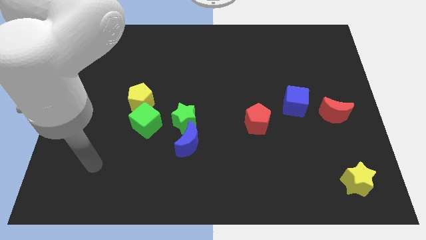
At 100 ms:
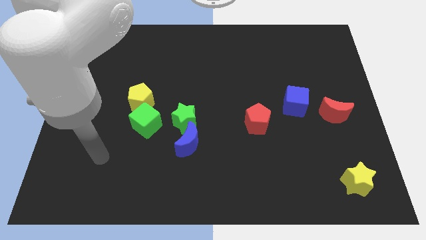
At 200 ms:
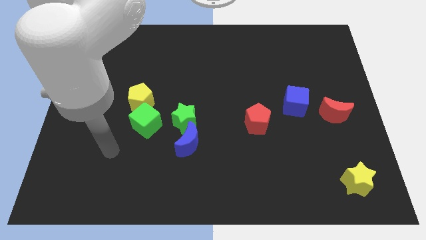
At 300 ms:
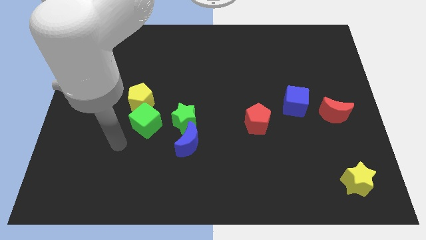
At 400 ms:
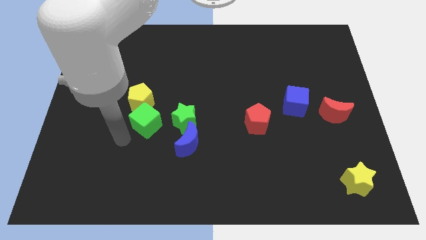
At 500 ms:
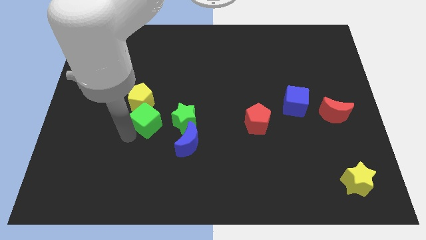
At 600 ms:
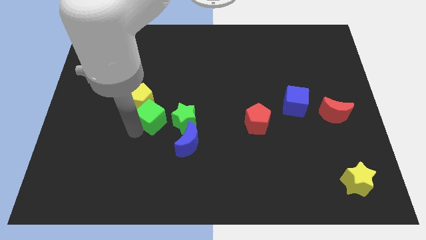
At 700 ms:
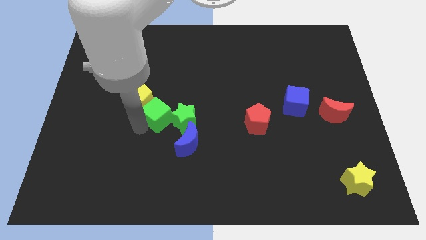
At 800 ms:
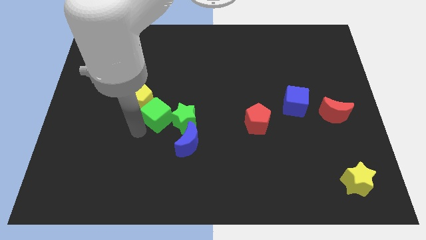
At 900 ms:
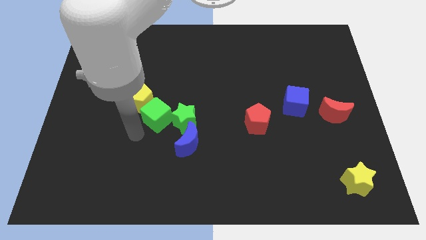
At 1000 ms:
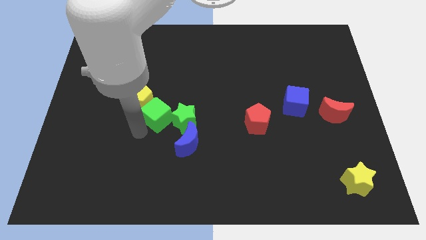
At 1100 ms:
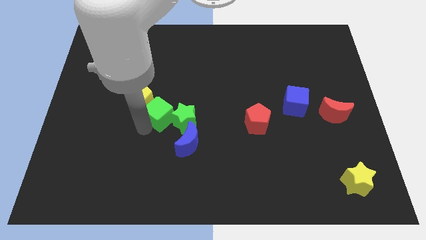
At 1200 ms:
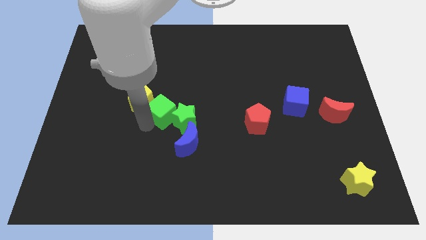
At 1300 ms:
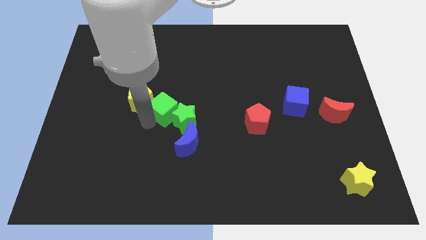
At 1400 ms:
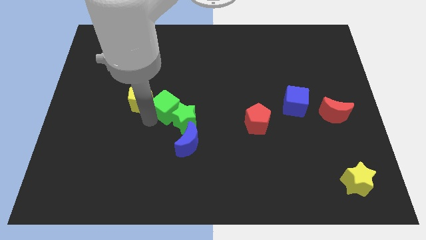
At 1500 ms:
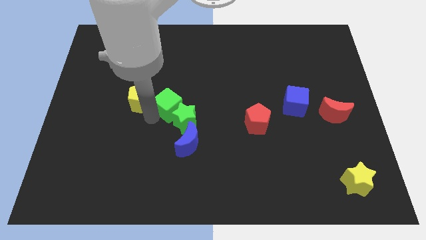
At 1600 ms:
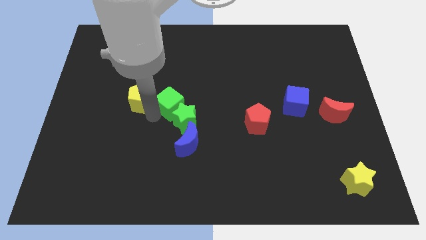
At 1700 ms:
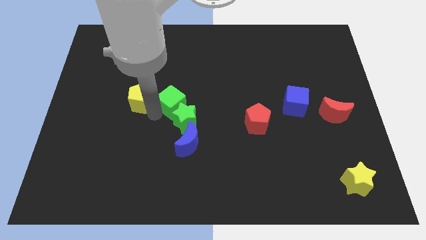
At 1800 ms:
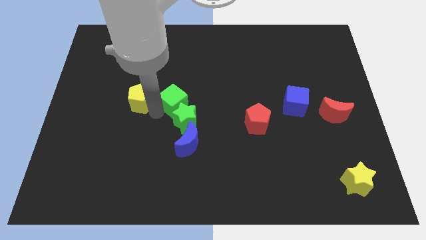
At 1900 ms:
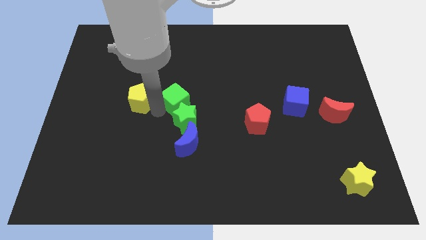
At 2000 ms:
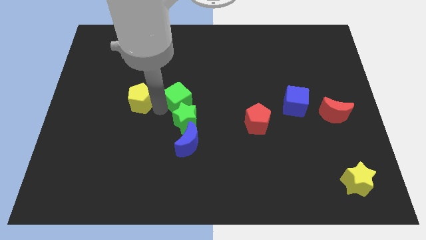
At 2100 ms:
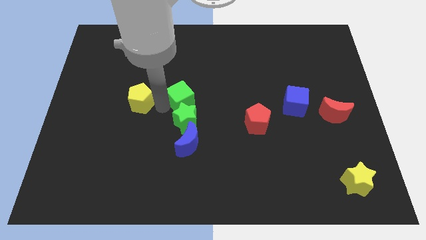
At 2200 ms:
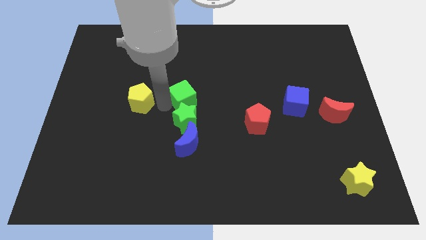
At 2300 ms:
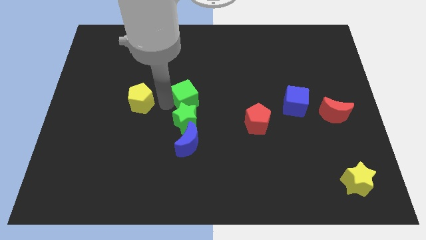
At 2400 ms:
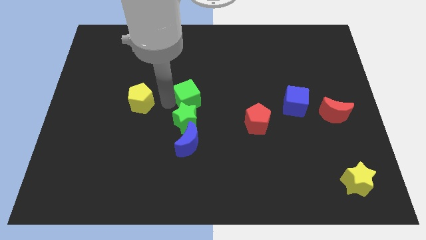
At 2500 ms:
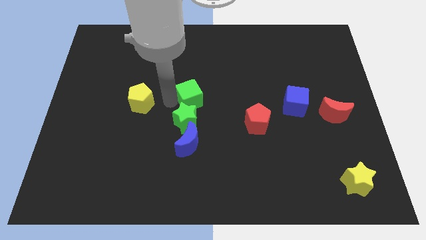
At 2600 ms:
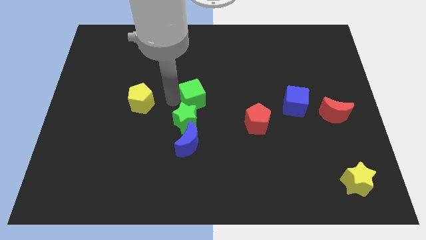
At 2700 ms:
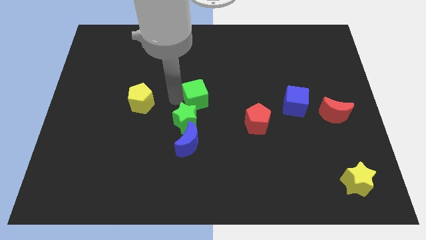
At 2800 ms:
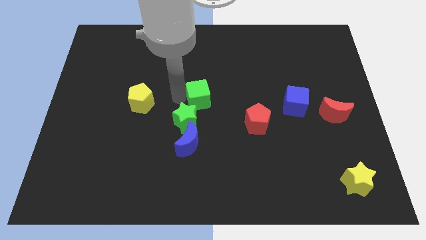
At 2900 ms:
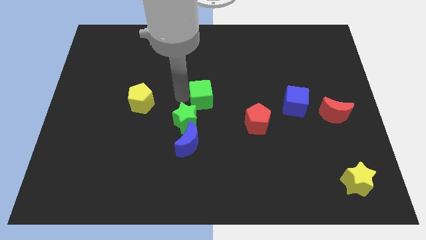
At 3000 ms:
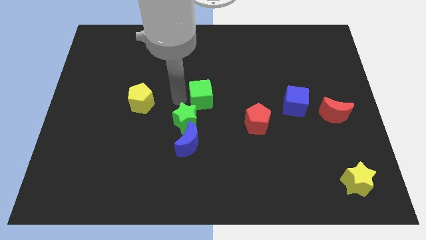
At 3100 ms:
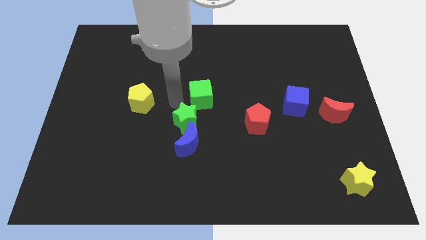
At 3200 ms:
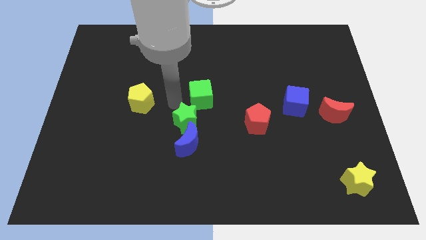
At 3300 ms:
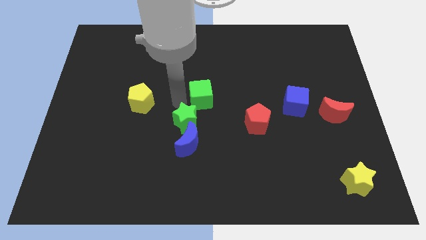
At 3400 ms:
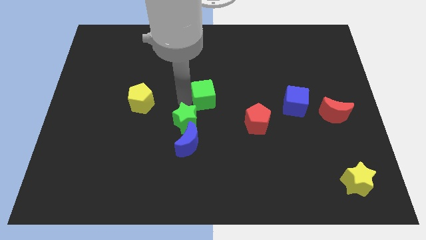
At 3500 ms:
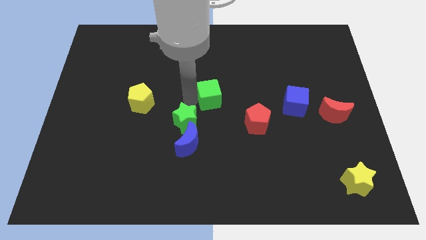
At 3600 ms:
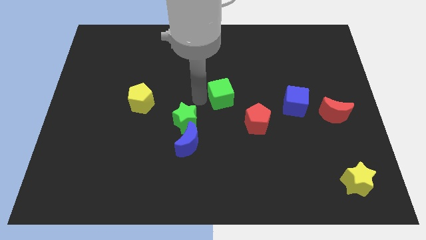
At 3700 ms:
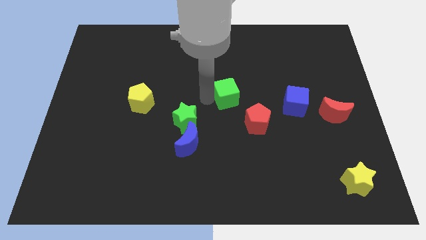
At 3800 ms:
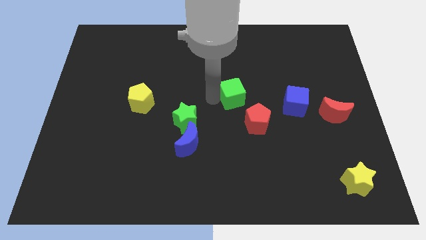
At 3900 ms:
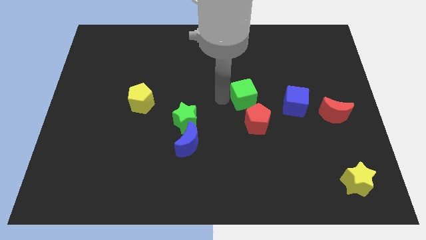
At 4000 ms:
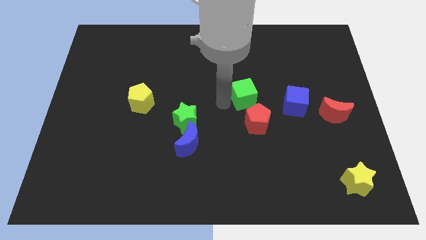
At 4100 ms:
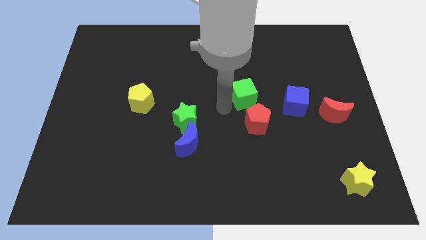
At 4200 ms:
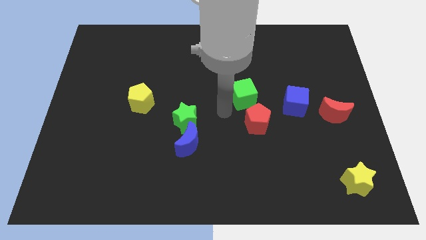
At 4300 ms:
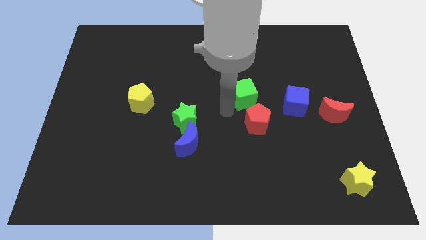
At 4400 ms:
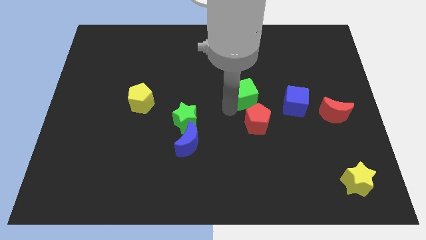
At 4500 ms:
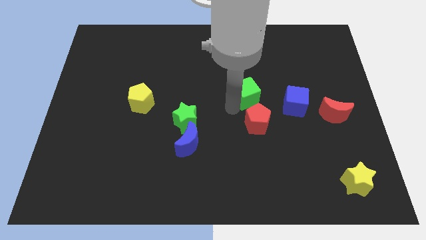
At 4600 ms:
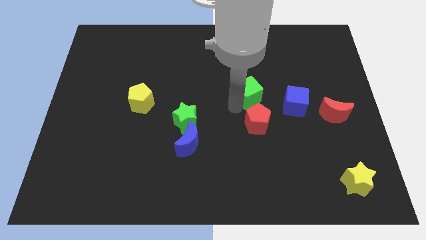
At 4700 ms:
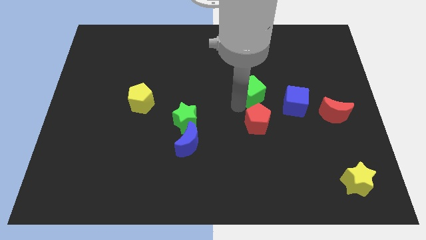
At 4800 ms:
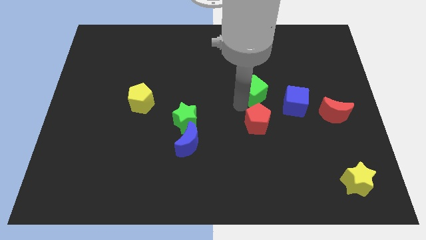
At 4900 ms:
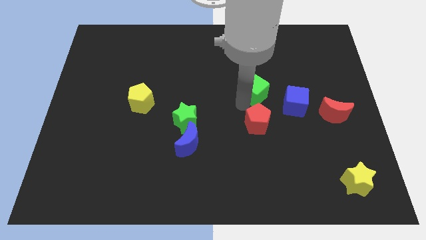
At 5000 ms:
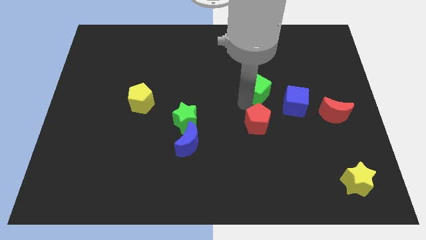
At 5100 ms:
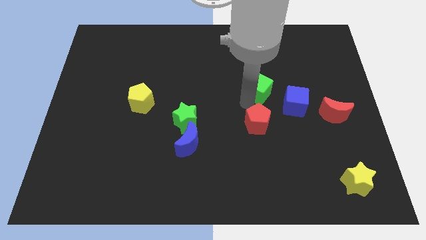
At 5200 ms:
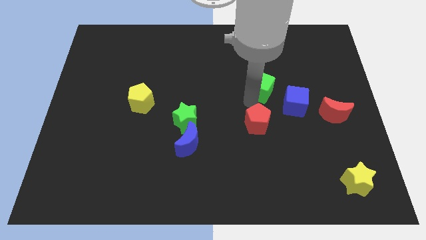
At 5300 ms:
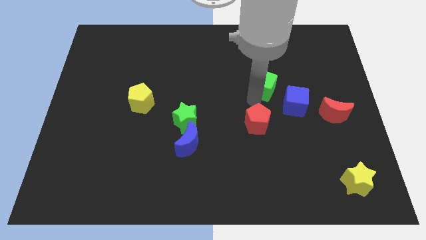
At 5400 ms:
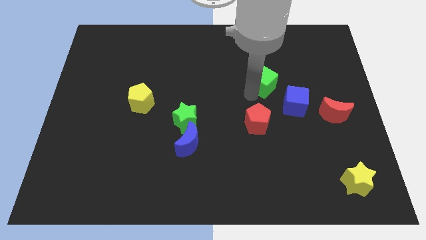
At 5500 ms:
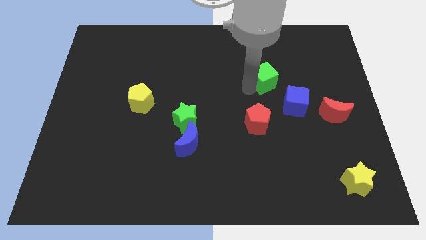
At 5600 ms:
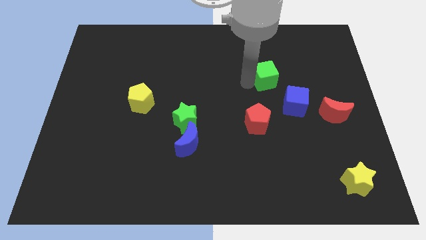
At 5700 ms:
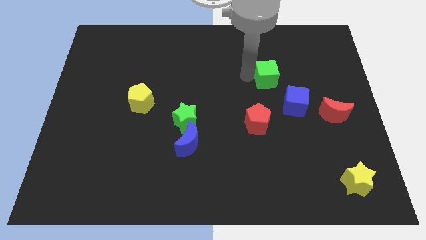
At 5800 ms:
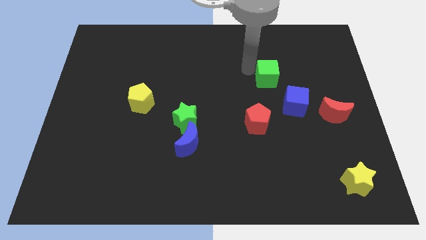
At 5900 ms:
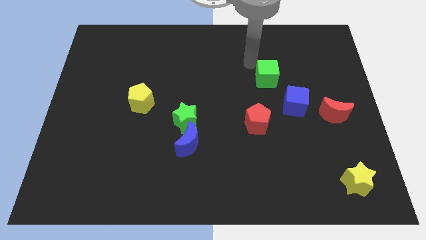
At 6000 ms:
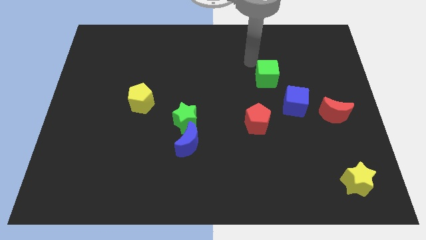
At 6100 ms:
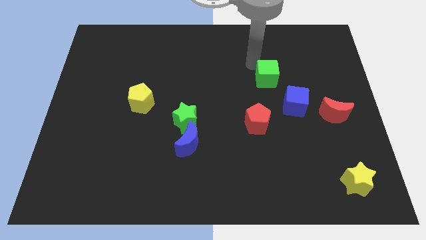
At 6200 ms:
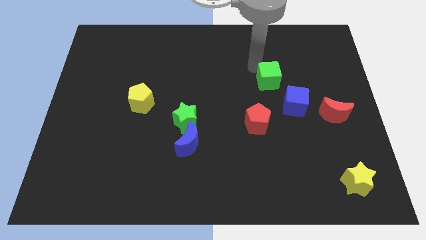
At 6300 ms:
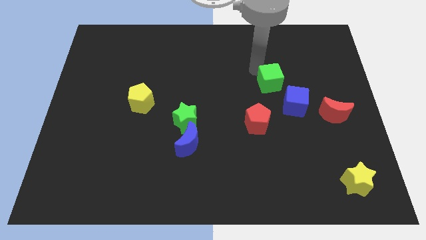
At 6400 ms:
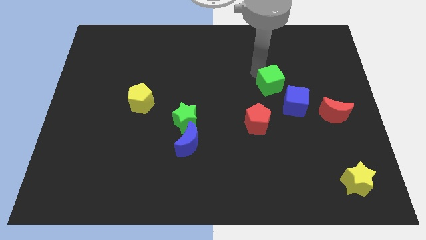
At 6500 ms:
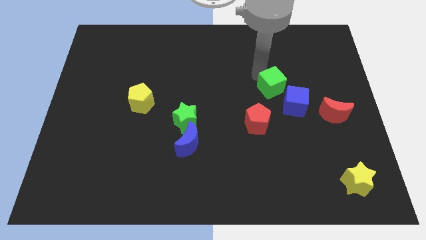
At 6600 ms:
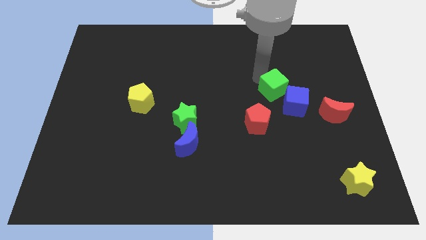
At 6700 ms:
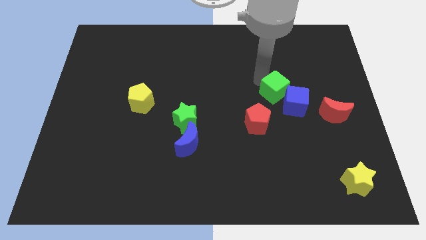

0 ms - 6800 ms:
move the green cube next to the blue cube

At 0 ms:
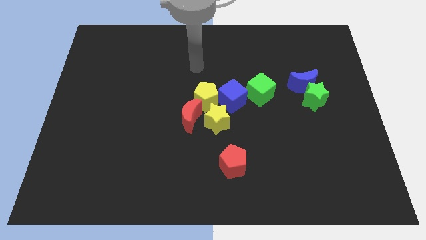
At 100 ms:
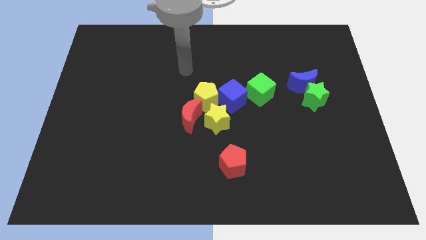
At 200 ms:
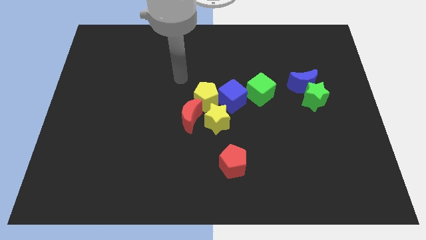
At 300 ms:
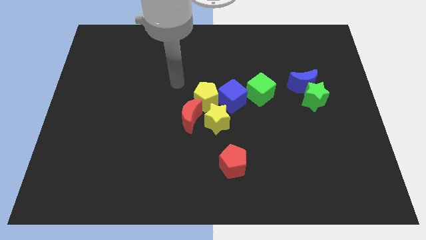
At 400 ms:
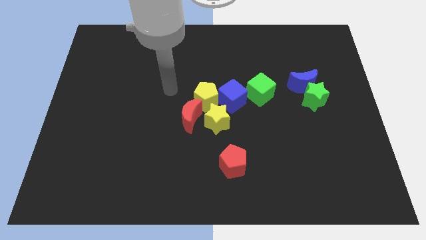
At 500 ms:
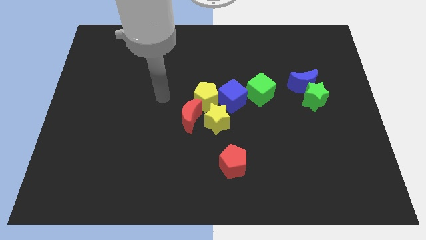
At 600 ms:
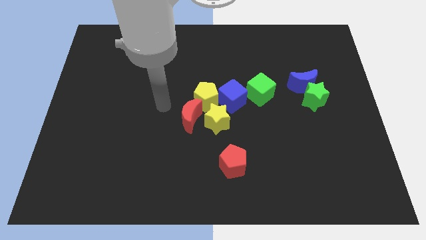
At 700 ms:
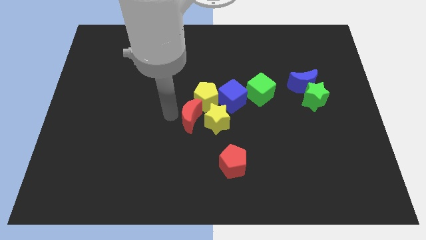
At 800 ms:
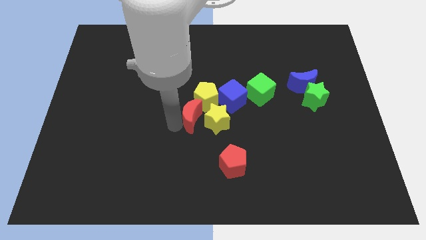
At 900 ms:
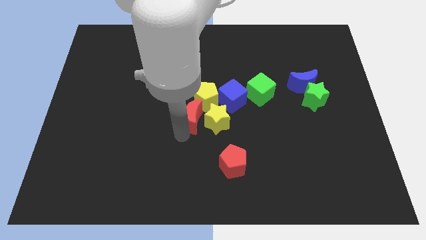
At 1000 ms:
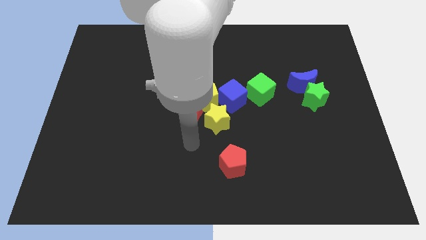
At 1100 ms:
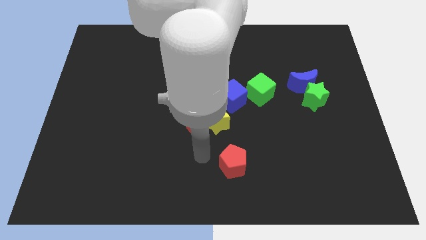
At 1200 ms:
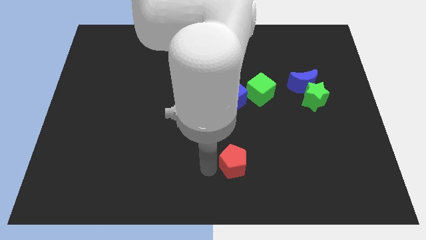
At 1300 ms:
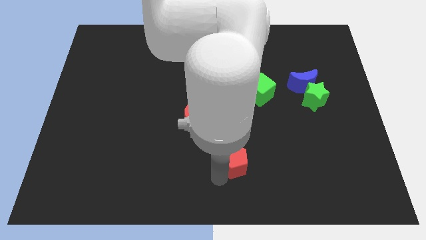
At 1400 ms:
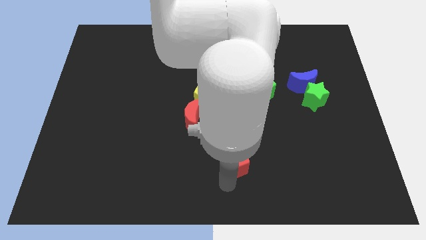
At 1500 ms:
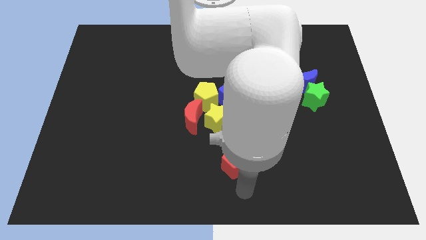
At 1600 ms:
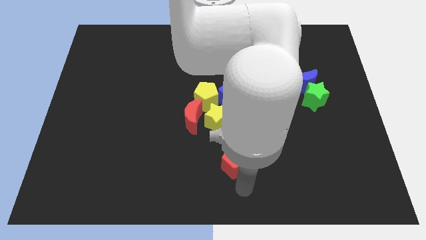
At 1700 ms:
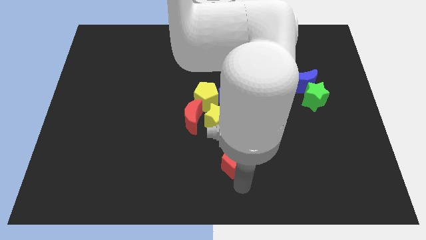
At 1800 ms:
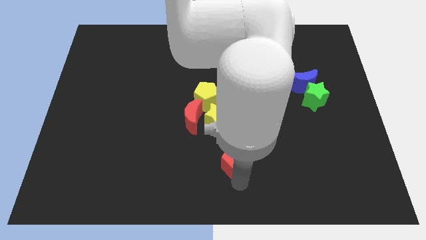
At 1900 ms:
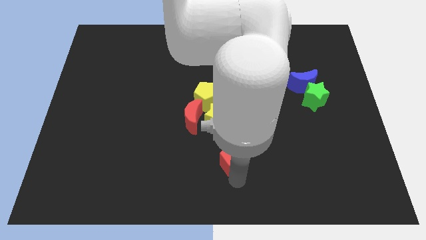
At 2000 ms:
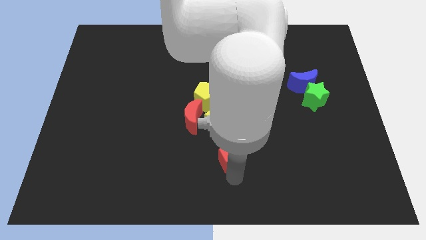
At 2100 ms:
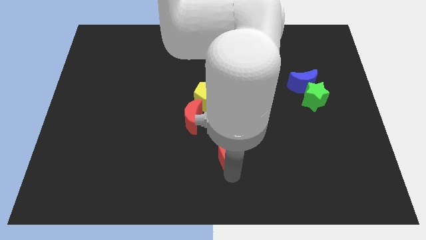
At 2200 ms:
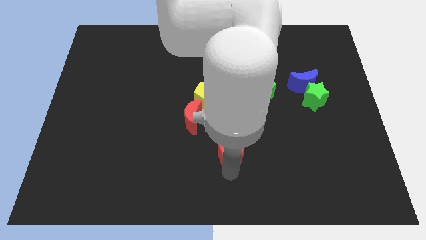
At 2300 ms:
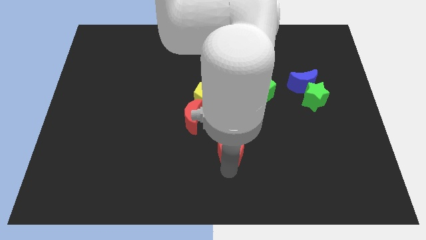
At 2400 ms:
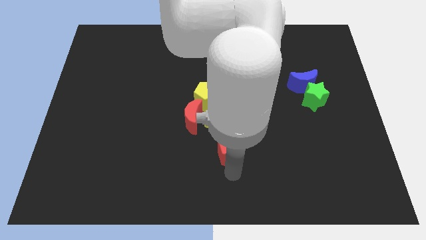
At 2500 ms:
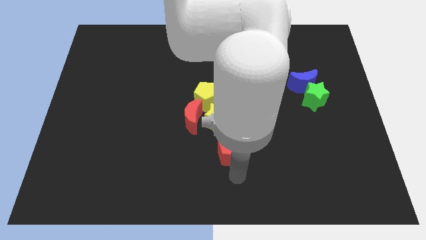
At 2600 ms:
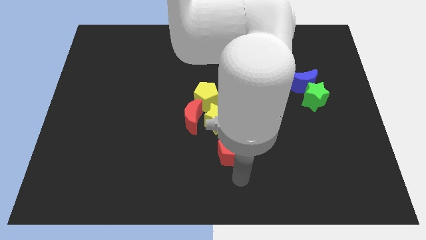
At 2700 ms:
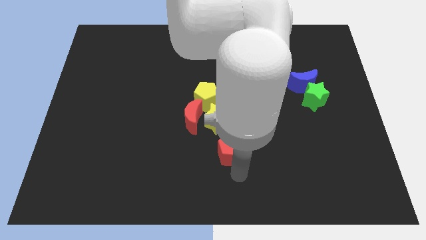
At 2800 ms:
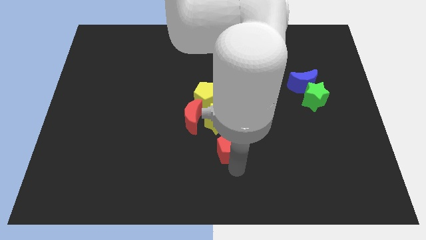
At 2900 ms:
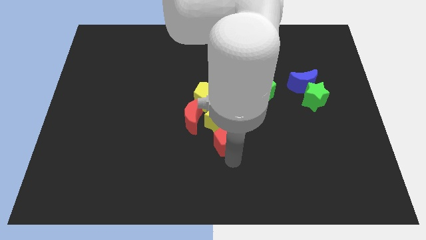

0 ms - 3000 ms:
slide the red pentagon close to the yellow star
